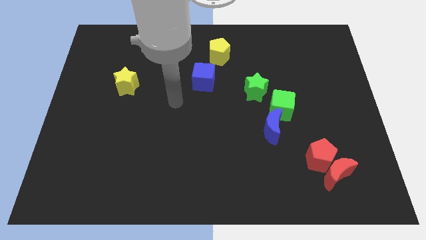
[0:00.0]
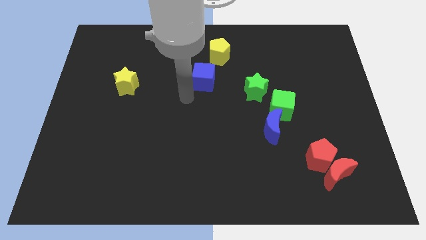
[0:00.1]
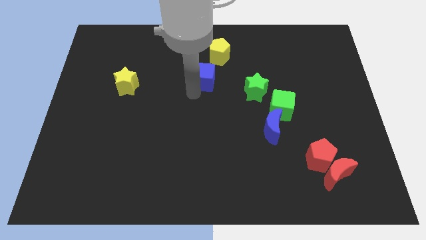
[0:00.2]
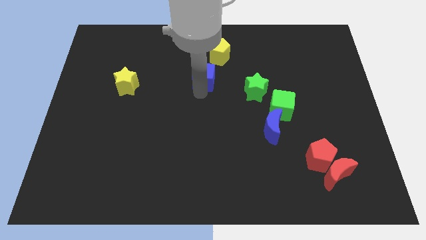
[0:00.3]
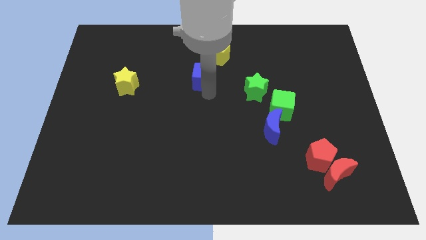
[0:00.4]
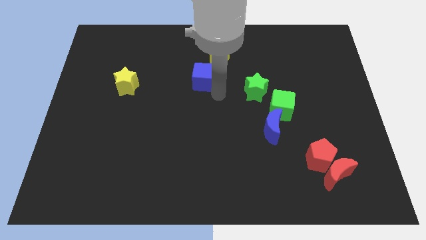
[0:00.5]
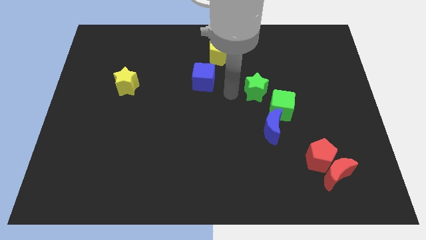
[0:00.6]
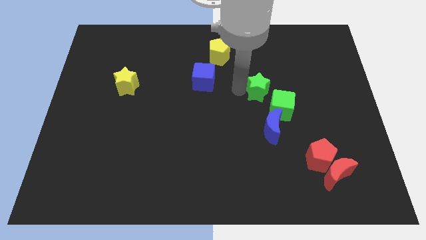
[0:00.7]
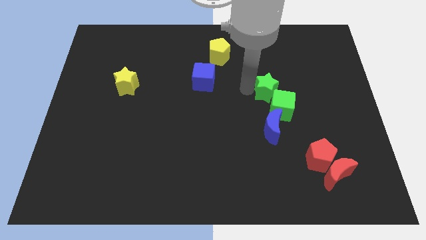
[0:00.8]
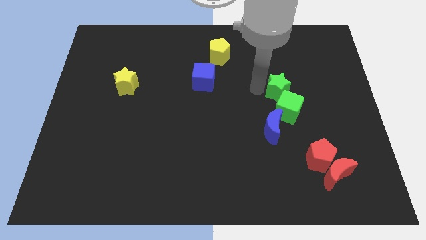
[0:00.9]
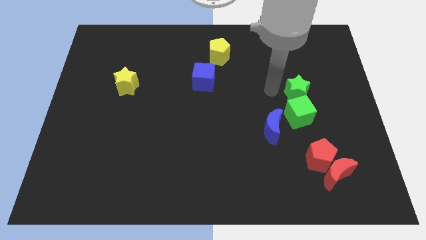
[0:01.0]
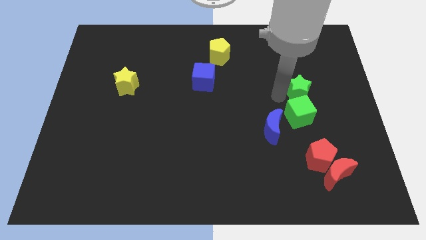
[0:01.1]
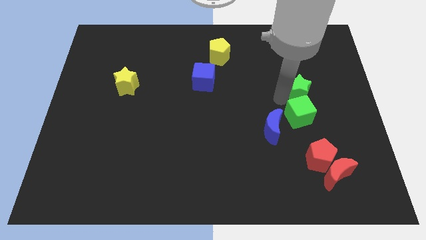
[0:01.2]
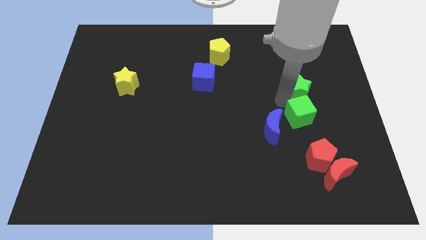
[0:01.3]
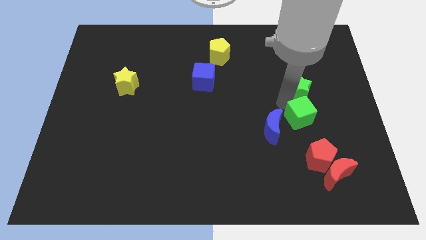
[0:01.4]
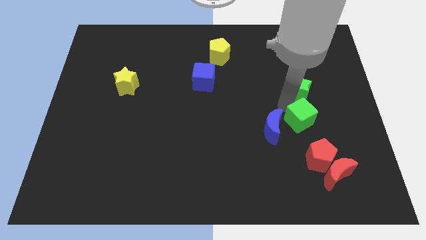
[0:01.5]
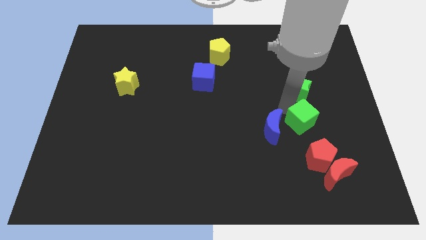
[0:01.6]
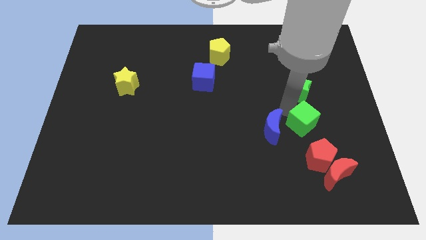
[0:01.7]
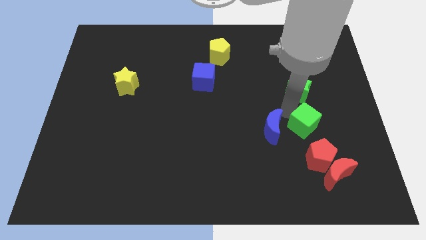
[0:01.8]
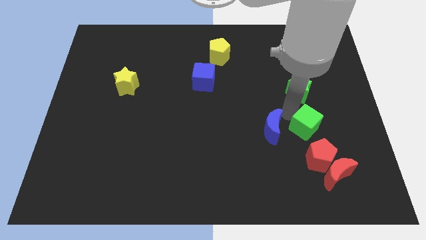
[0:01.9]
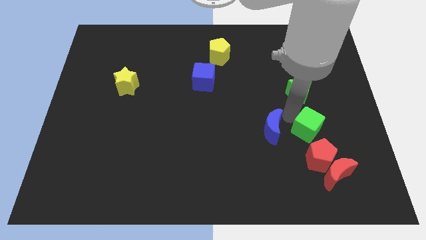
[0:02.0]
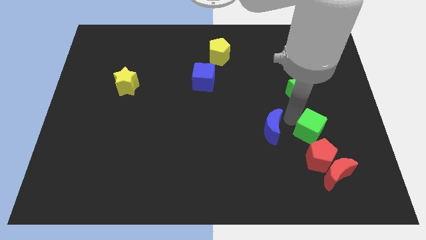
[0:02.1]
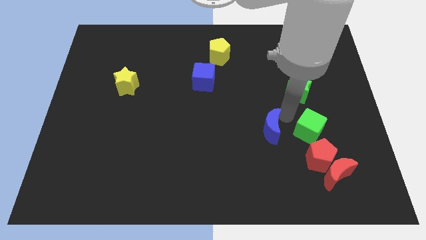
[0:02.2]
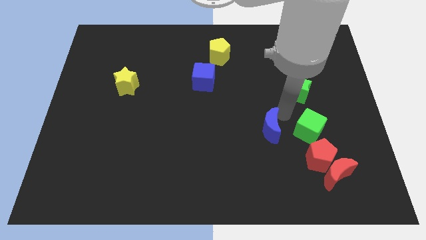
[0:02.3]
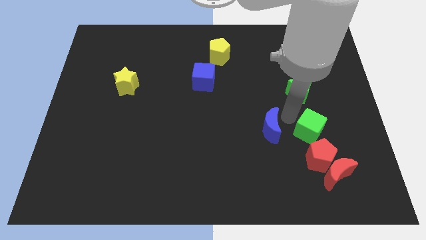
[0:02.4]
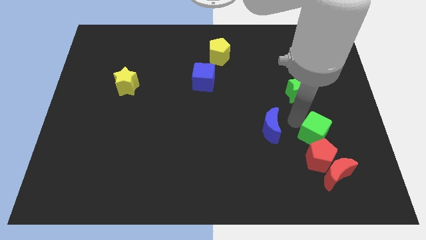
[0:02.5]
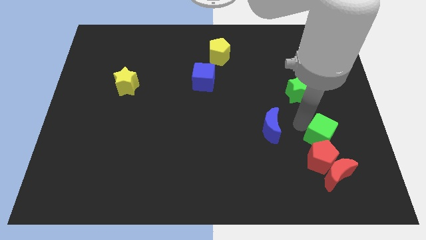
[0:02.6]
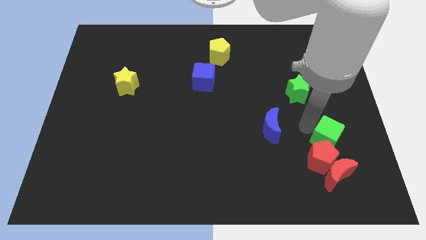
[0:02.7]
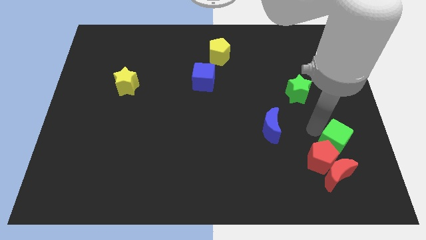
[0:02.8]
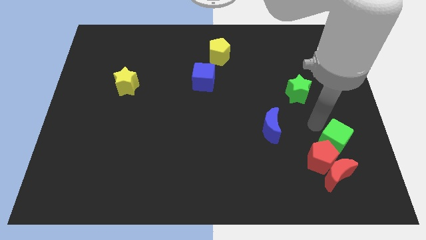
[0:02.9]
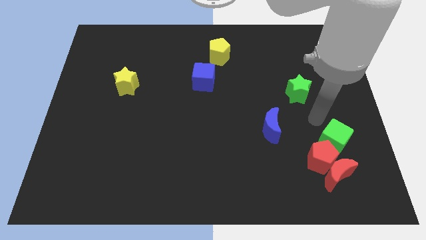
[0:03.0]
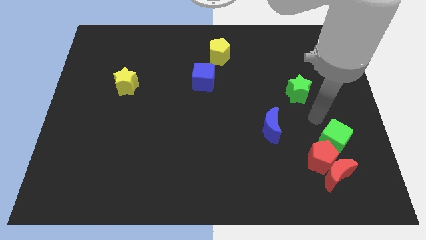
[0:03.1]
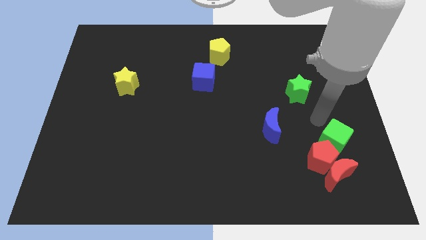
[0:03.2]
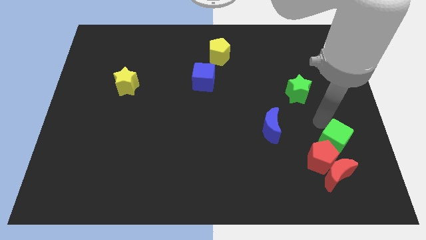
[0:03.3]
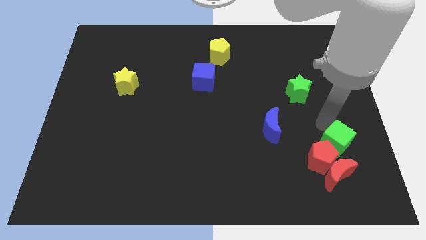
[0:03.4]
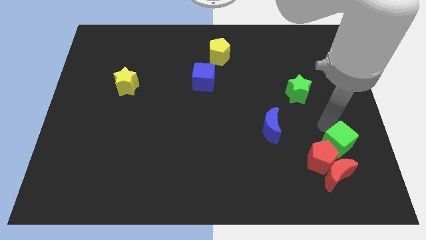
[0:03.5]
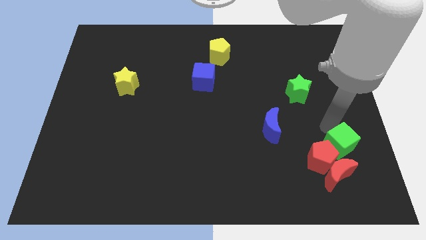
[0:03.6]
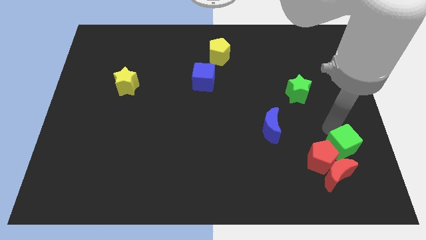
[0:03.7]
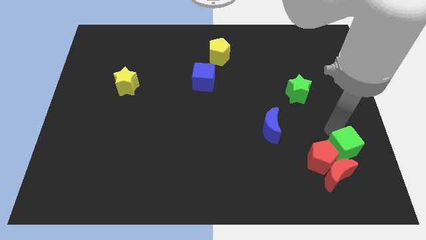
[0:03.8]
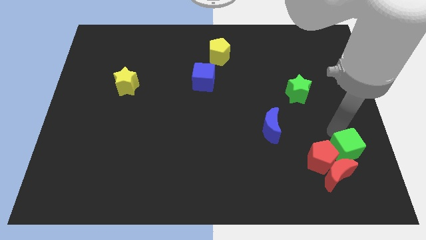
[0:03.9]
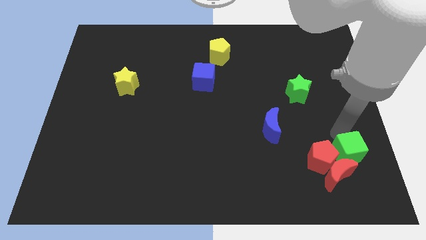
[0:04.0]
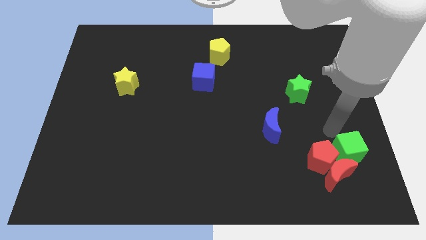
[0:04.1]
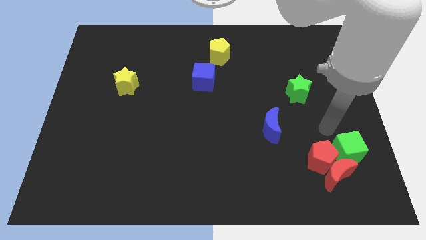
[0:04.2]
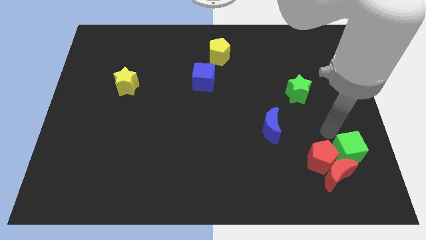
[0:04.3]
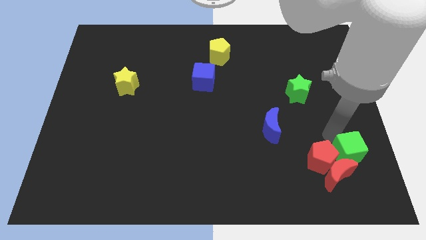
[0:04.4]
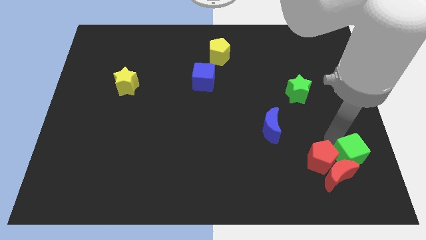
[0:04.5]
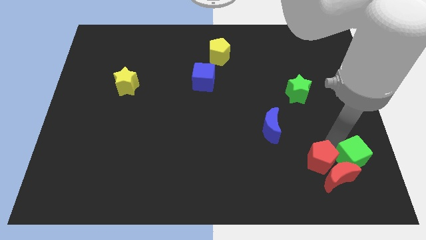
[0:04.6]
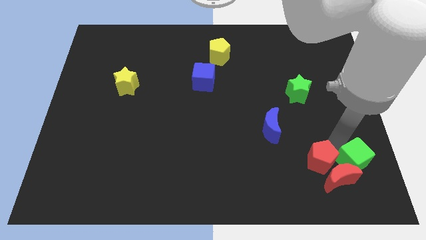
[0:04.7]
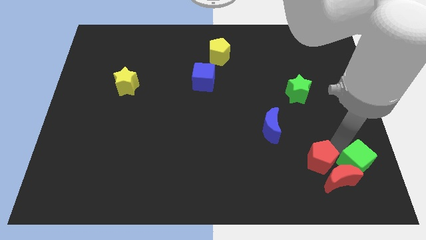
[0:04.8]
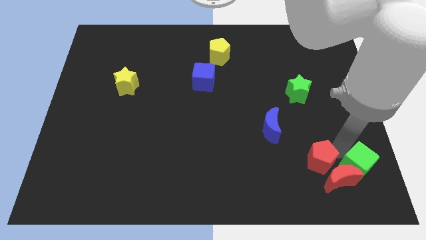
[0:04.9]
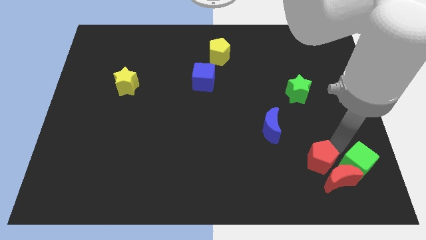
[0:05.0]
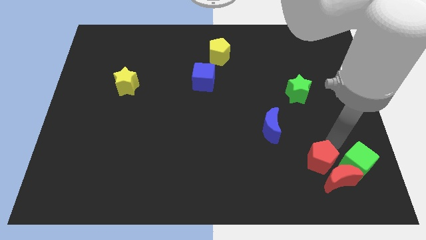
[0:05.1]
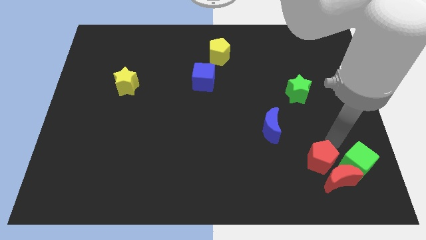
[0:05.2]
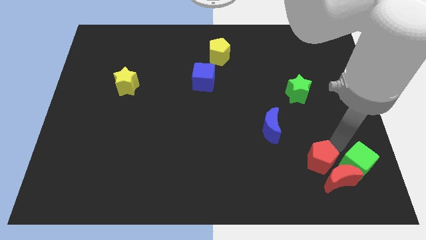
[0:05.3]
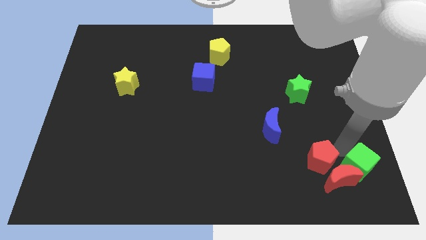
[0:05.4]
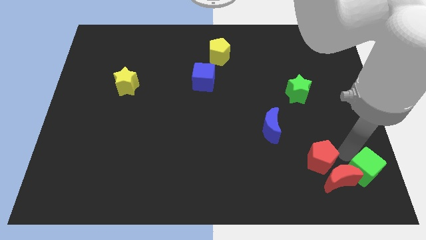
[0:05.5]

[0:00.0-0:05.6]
move the green cube to the lower right corner

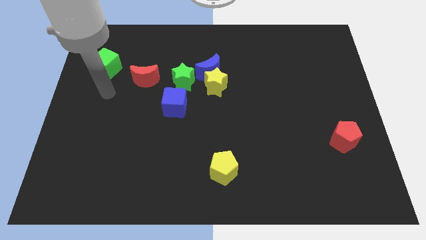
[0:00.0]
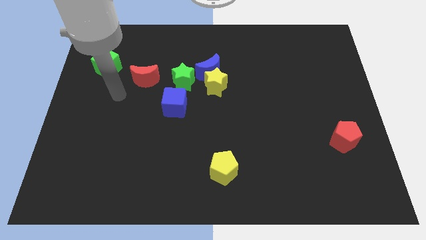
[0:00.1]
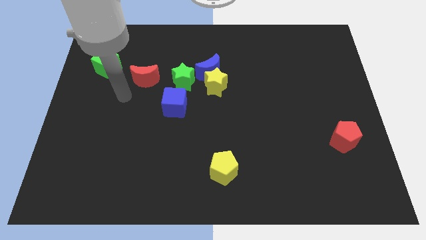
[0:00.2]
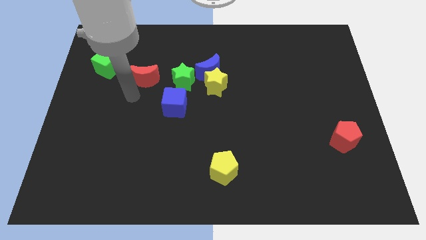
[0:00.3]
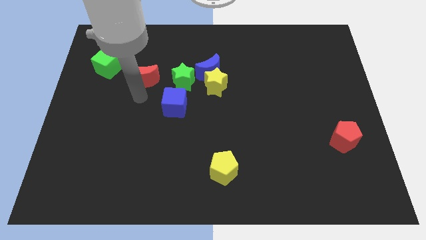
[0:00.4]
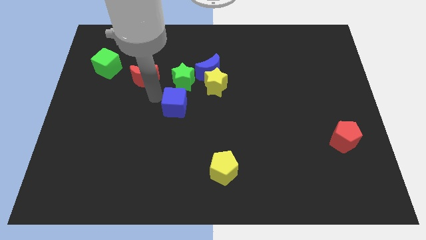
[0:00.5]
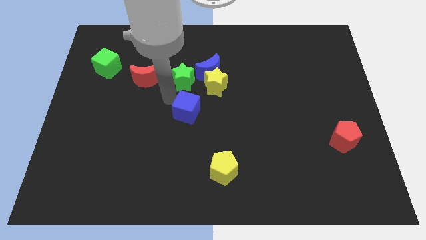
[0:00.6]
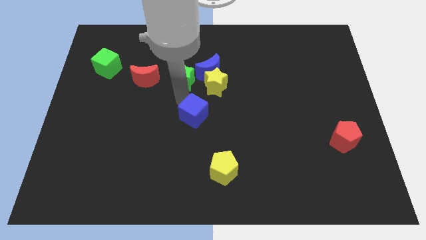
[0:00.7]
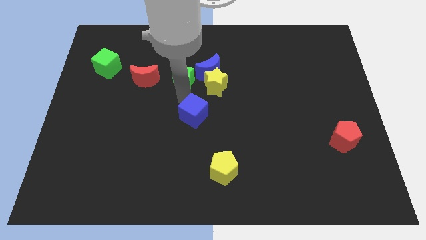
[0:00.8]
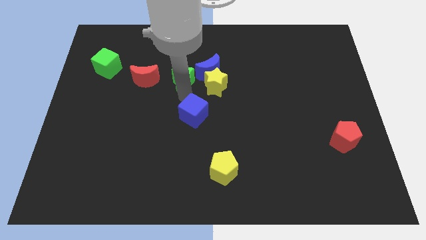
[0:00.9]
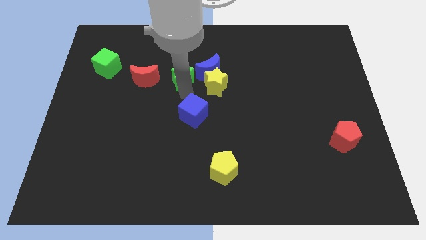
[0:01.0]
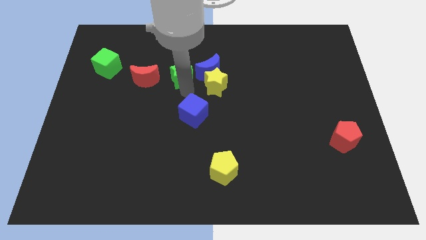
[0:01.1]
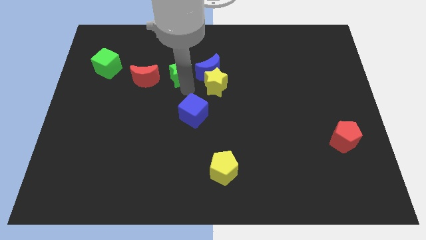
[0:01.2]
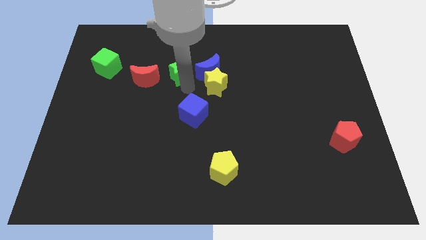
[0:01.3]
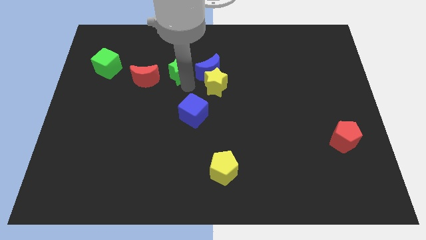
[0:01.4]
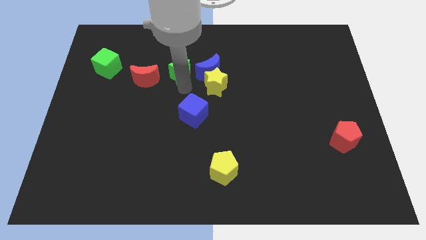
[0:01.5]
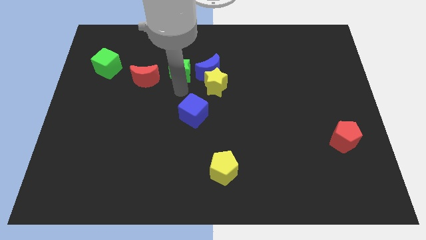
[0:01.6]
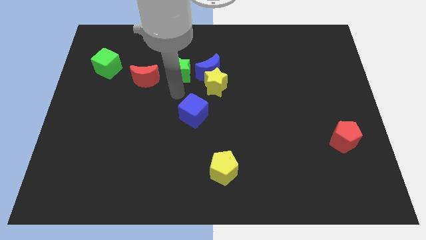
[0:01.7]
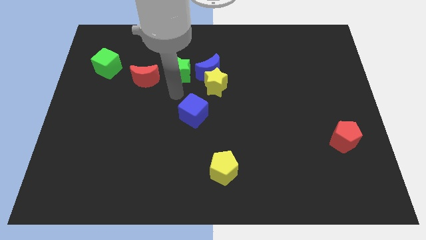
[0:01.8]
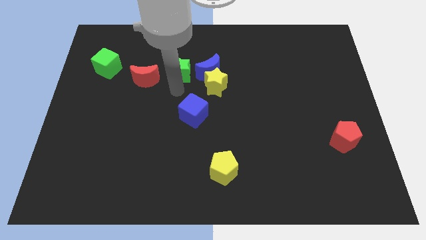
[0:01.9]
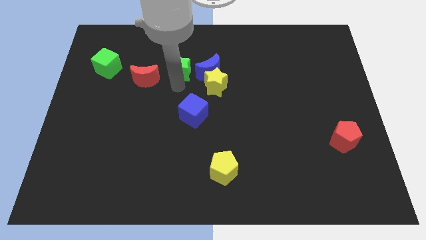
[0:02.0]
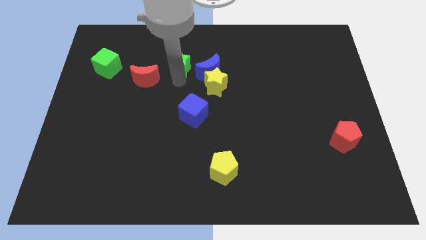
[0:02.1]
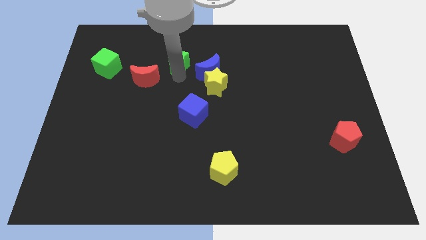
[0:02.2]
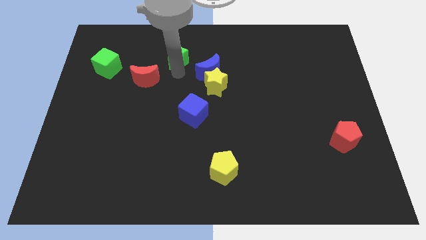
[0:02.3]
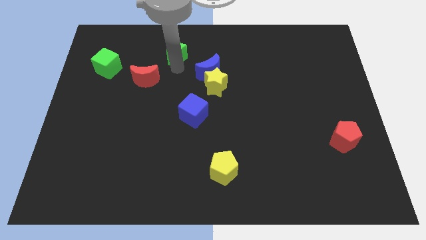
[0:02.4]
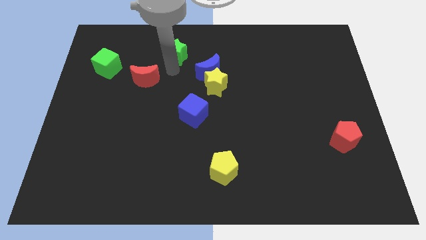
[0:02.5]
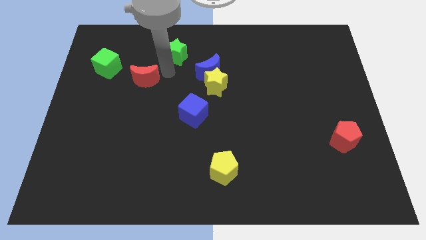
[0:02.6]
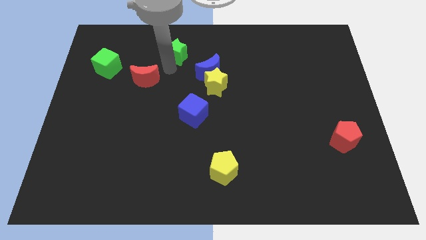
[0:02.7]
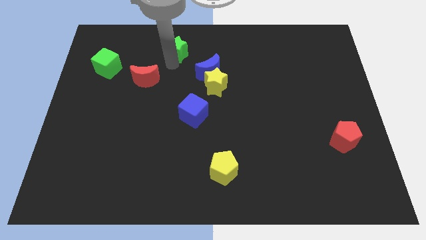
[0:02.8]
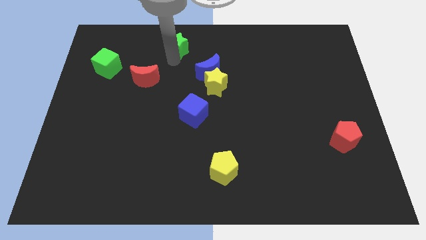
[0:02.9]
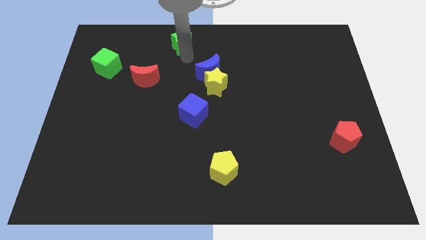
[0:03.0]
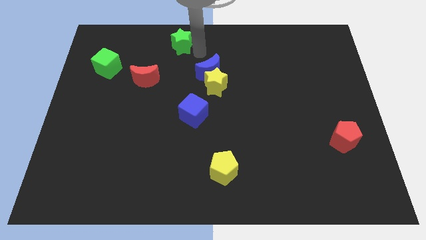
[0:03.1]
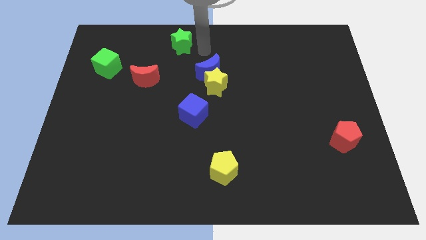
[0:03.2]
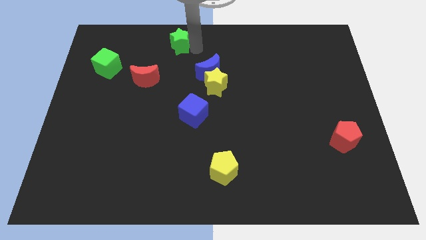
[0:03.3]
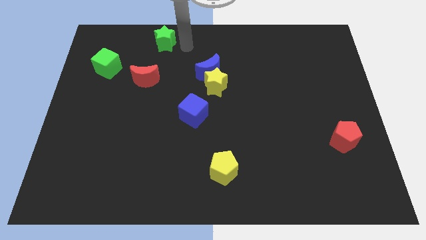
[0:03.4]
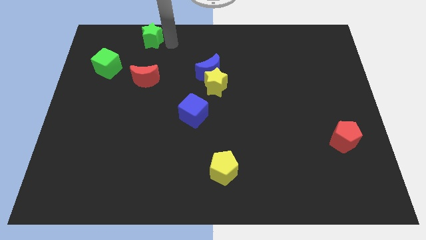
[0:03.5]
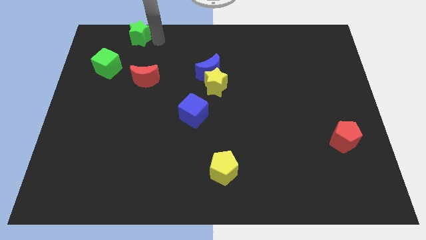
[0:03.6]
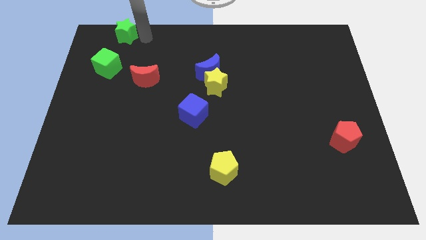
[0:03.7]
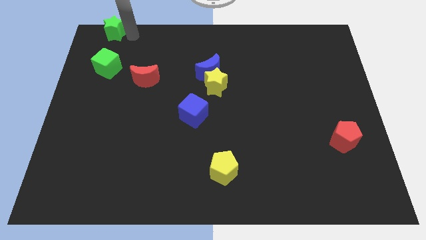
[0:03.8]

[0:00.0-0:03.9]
slide the green star to the top left of the board
